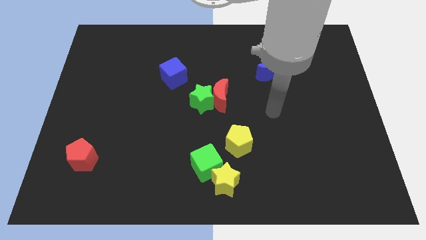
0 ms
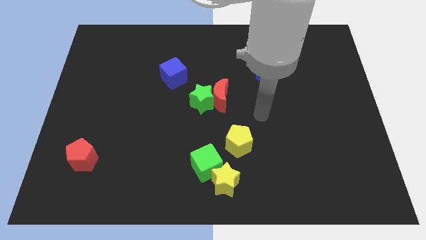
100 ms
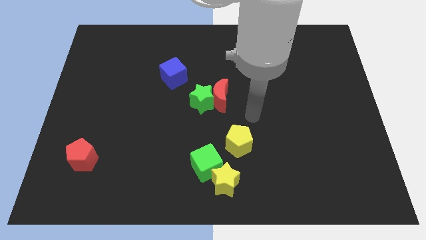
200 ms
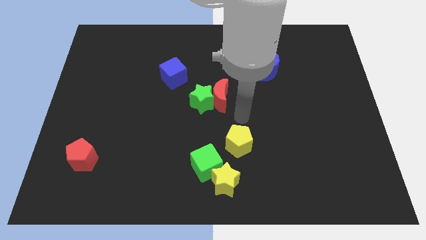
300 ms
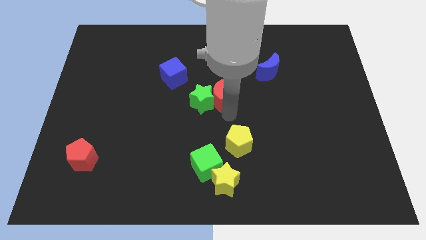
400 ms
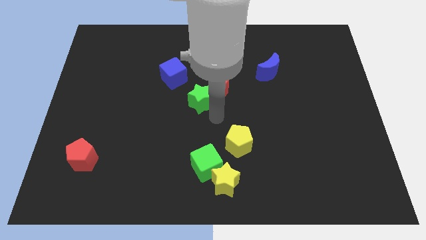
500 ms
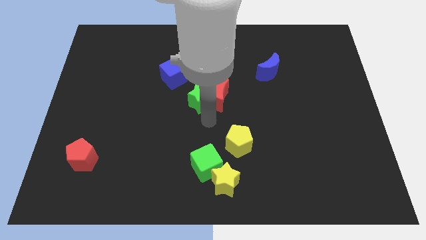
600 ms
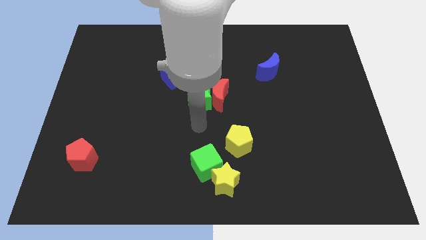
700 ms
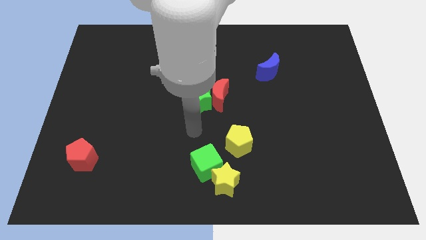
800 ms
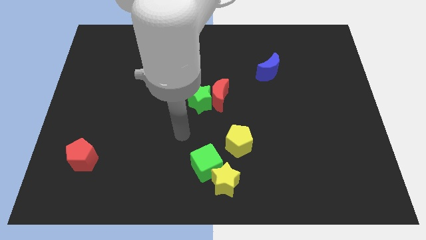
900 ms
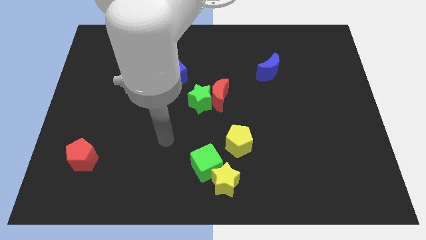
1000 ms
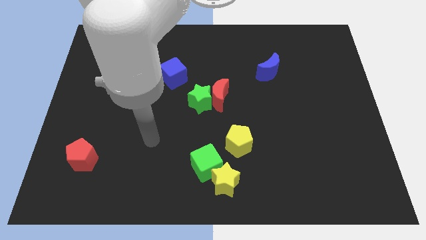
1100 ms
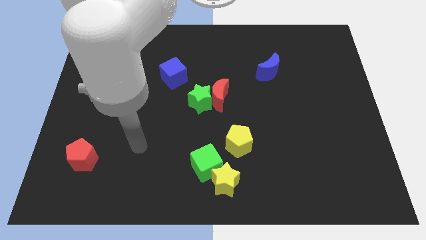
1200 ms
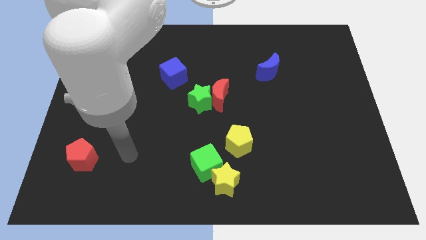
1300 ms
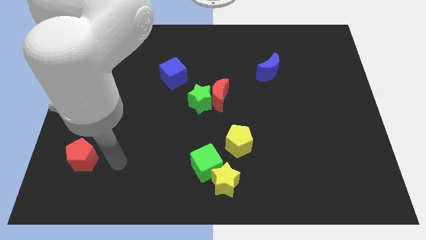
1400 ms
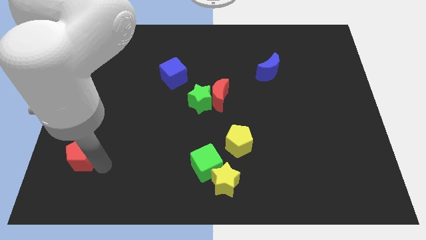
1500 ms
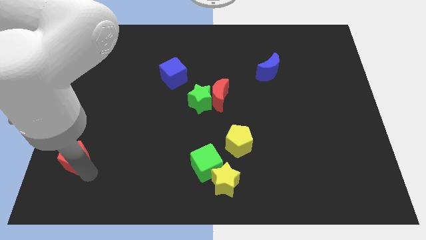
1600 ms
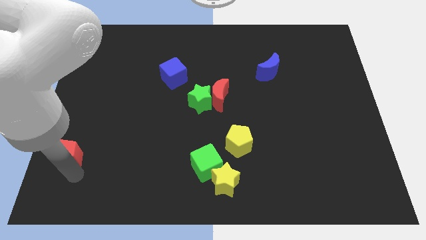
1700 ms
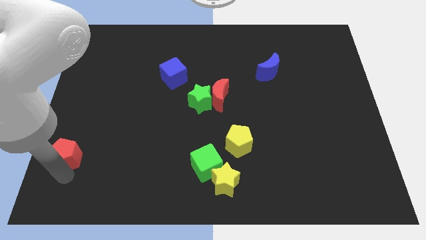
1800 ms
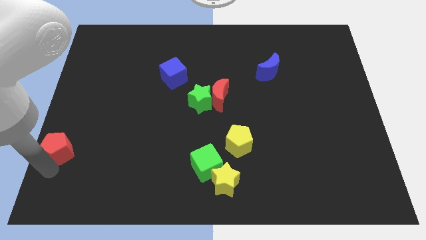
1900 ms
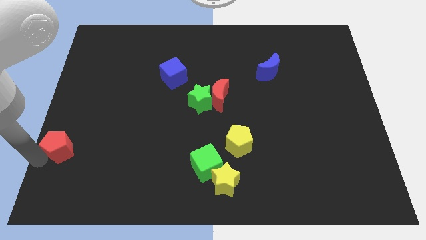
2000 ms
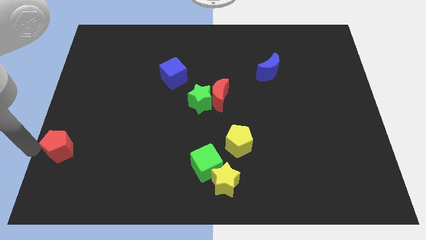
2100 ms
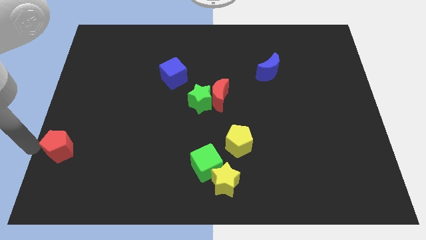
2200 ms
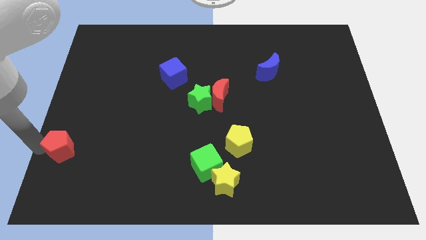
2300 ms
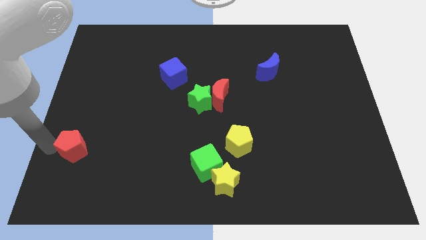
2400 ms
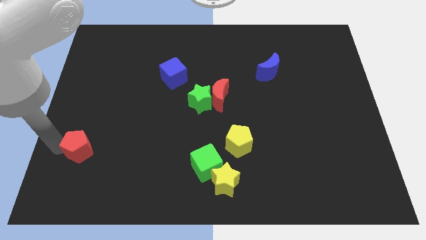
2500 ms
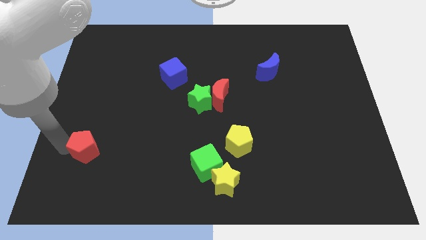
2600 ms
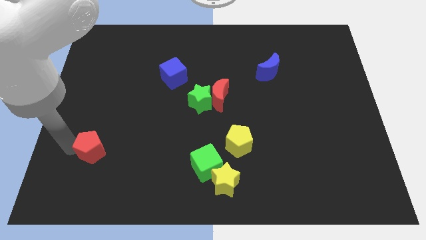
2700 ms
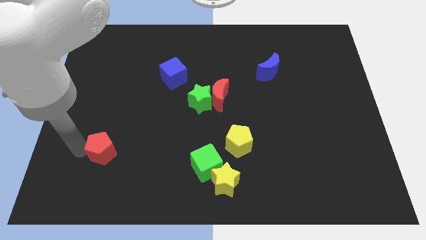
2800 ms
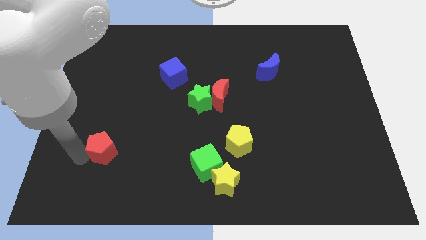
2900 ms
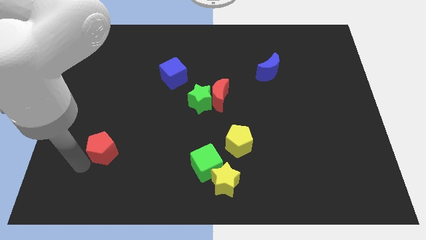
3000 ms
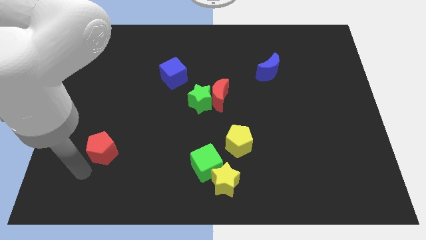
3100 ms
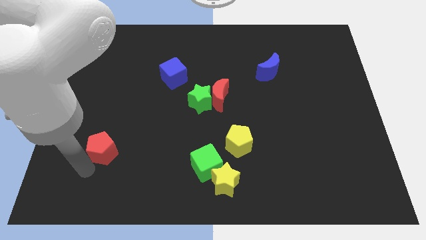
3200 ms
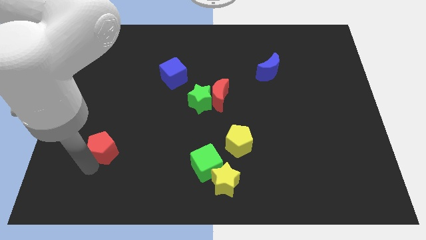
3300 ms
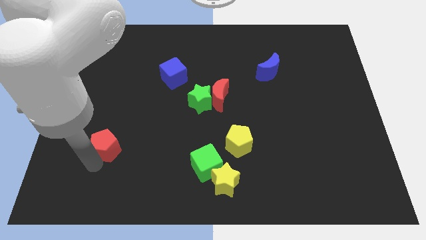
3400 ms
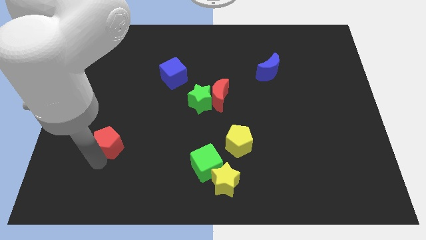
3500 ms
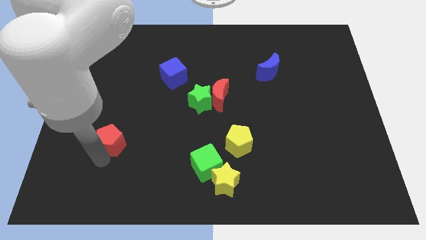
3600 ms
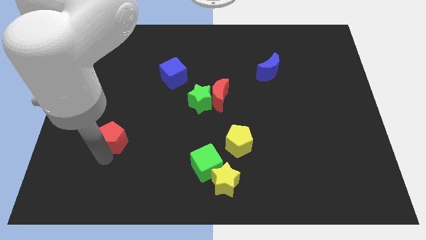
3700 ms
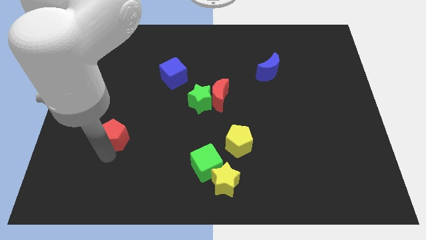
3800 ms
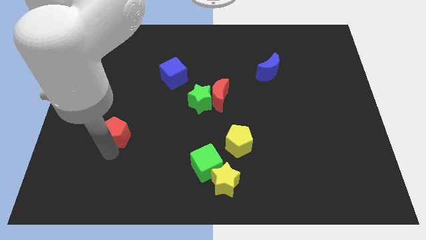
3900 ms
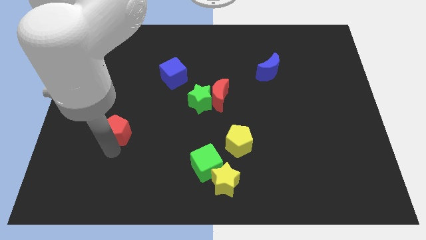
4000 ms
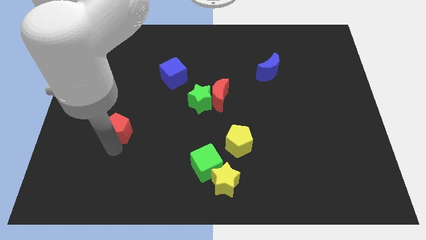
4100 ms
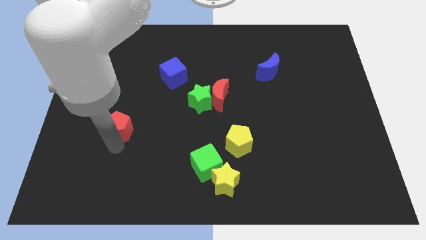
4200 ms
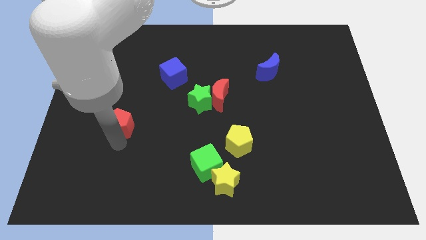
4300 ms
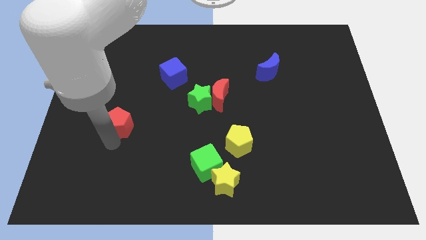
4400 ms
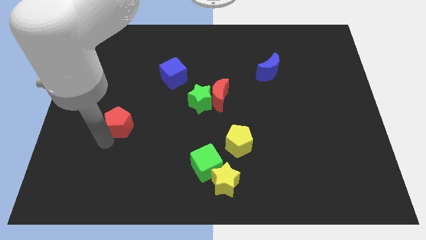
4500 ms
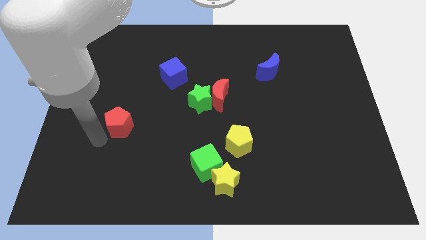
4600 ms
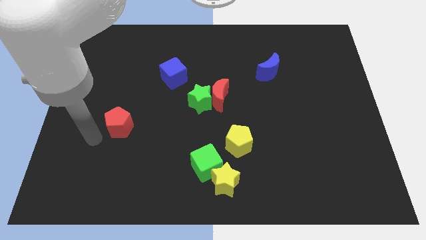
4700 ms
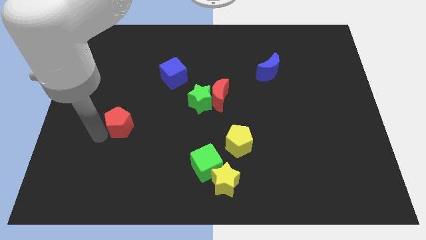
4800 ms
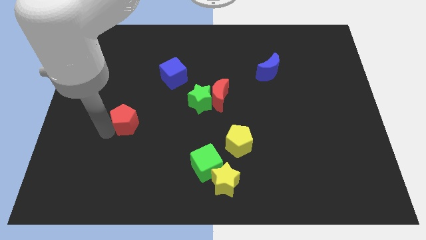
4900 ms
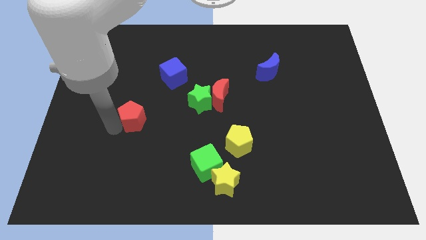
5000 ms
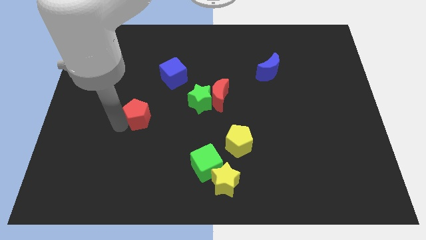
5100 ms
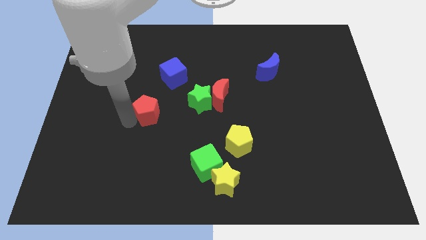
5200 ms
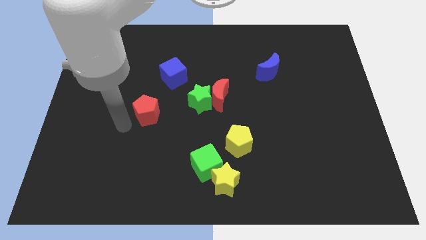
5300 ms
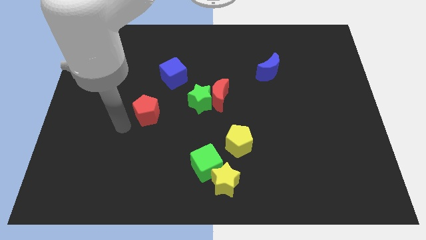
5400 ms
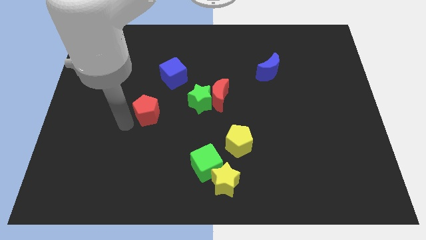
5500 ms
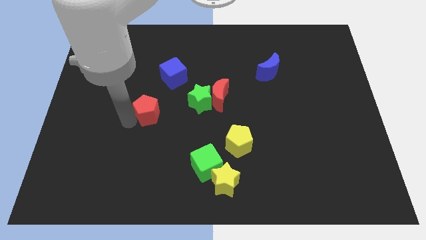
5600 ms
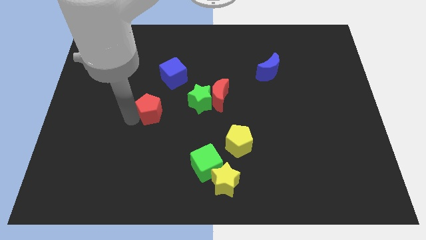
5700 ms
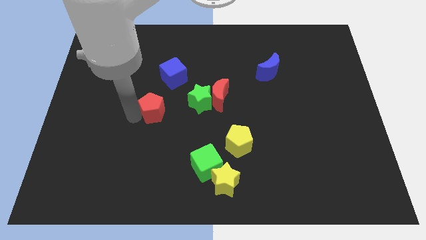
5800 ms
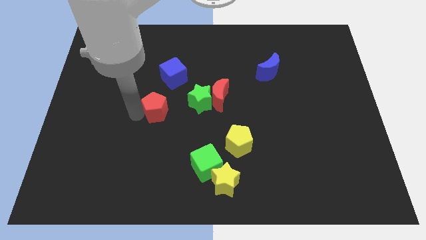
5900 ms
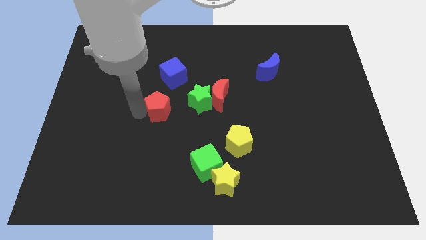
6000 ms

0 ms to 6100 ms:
push the red pentagon to the left of the red moon

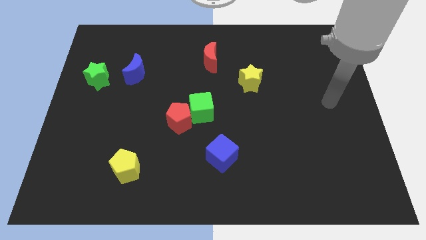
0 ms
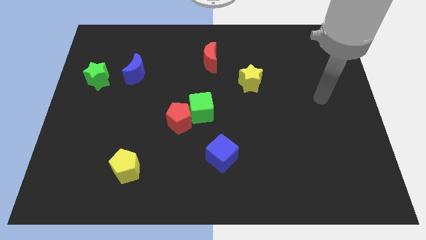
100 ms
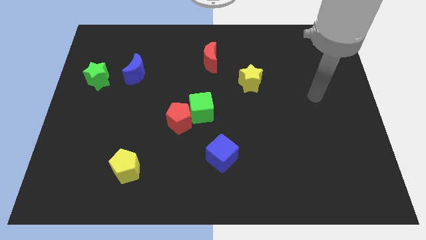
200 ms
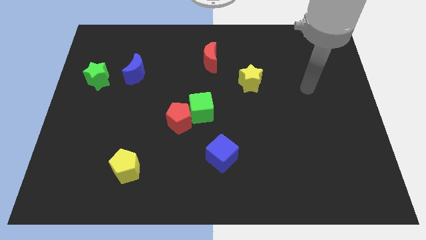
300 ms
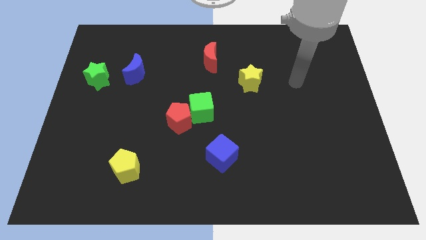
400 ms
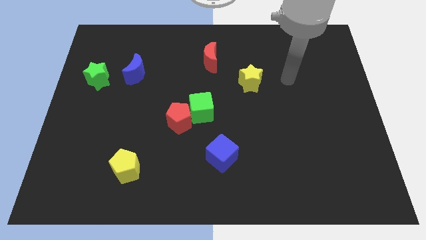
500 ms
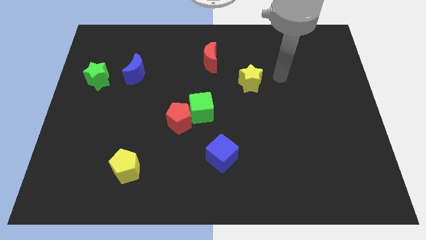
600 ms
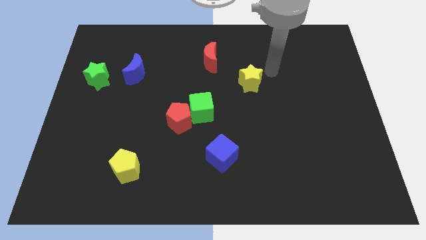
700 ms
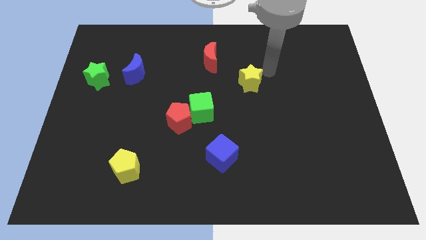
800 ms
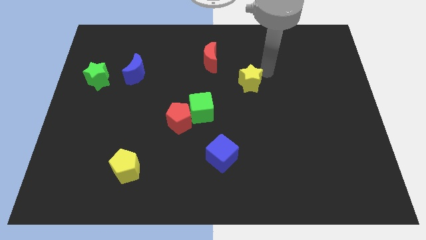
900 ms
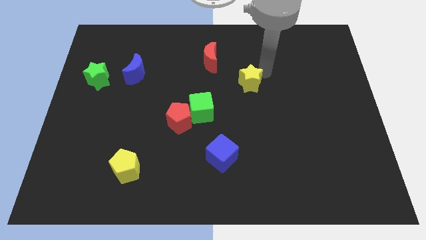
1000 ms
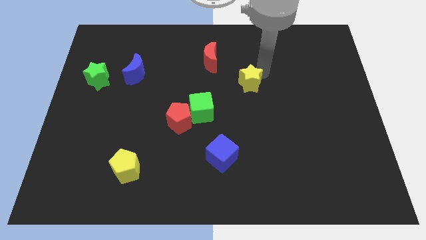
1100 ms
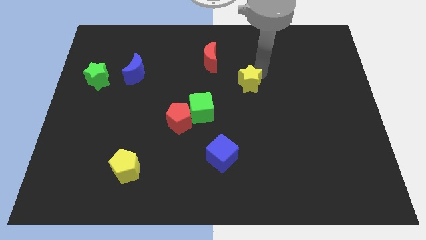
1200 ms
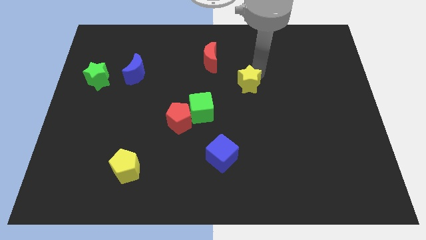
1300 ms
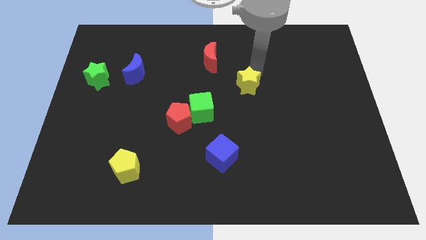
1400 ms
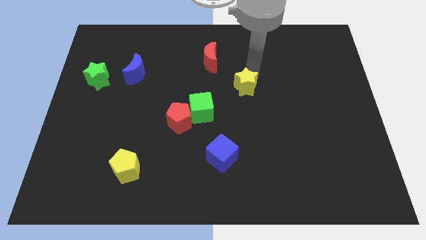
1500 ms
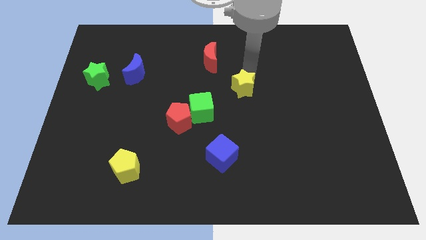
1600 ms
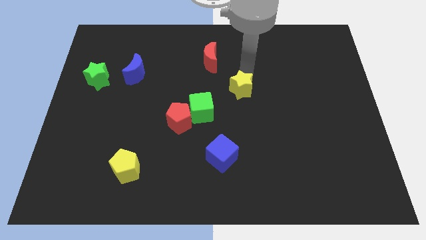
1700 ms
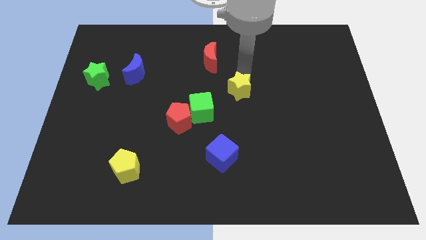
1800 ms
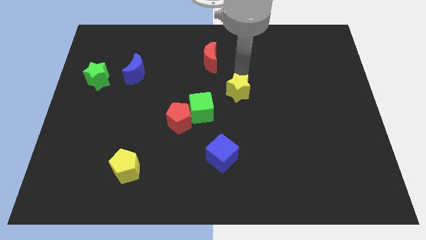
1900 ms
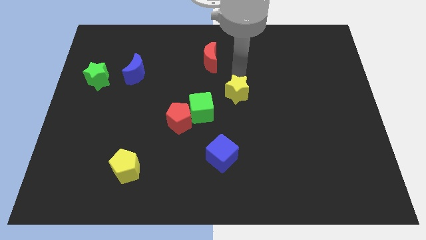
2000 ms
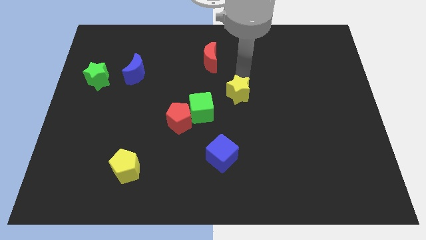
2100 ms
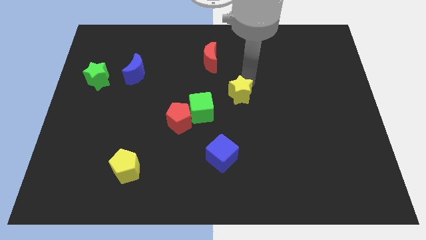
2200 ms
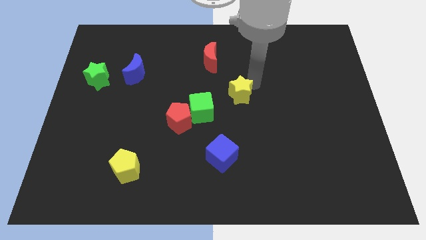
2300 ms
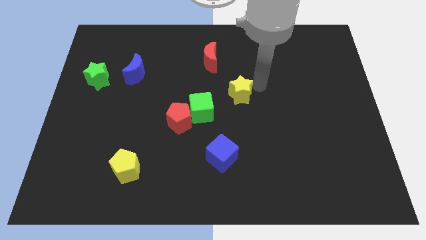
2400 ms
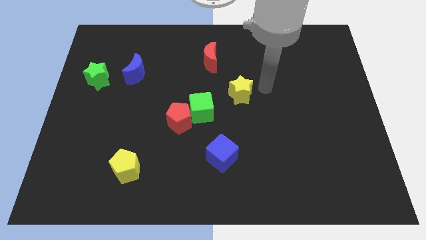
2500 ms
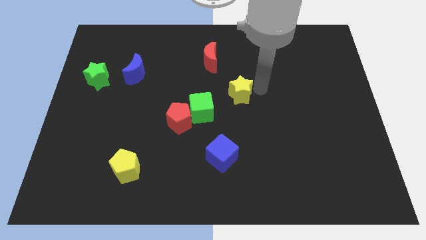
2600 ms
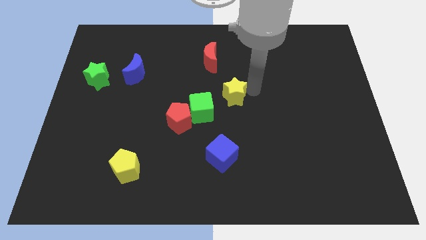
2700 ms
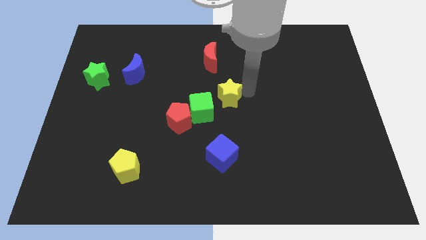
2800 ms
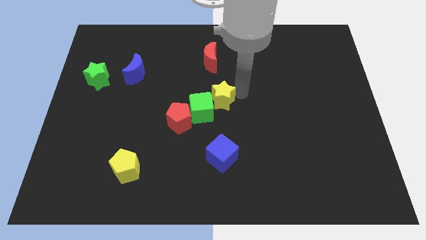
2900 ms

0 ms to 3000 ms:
push the yellow star to the top right side of the red pentagon
